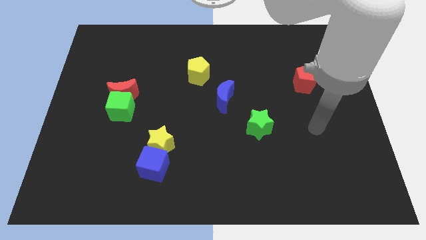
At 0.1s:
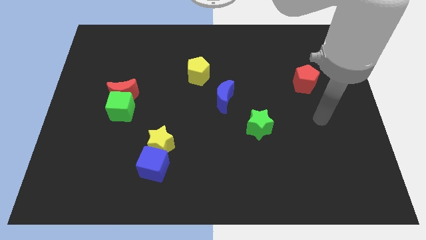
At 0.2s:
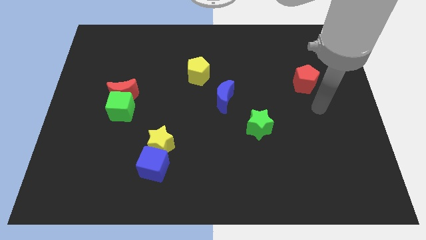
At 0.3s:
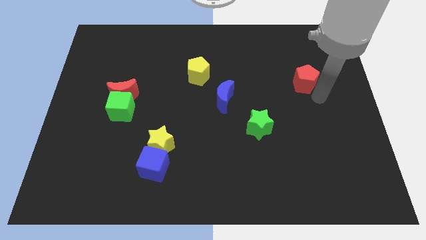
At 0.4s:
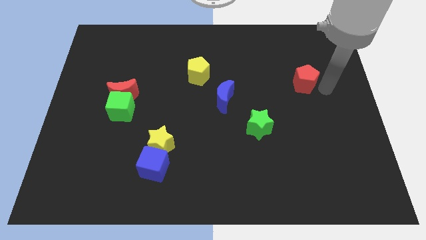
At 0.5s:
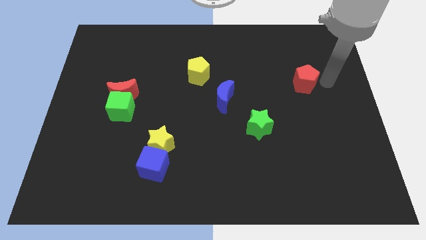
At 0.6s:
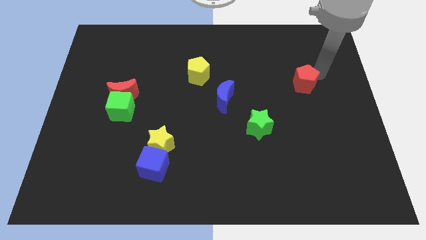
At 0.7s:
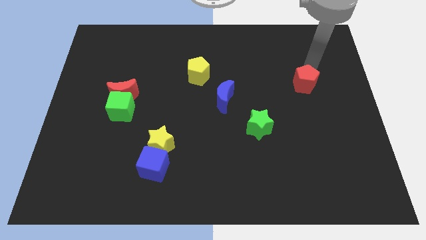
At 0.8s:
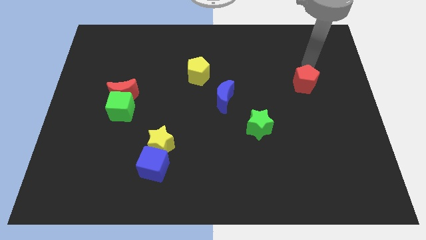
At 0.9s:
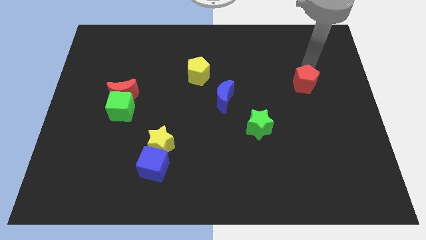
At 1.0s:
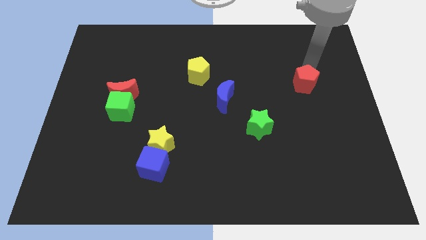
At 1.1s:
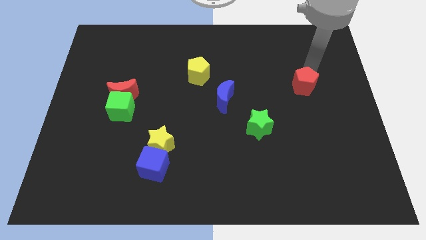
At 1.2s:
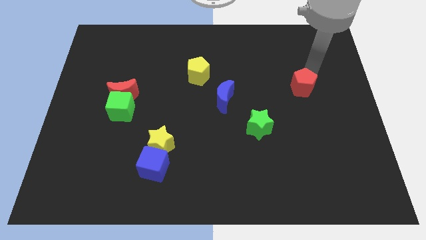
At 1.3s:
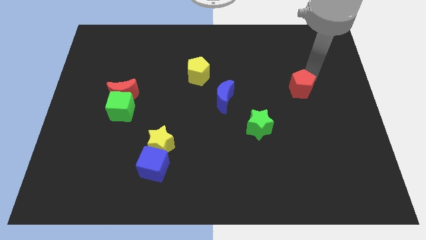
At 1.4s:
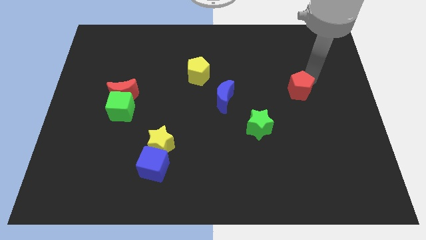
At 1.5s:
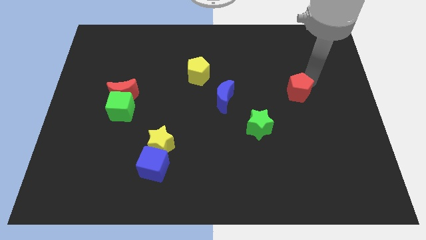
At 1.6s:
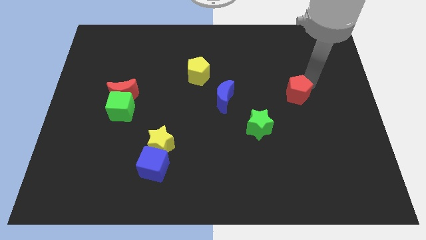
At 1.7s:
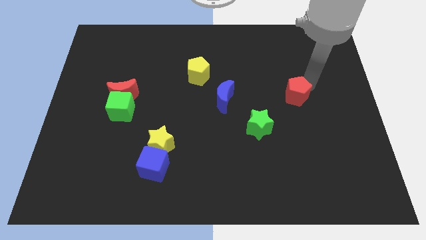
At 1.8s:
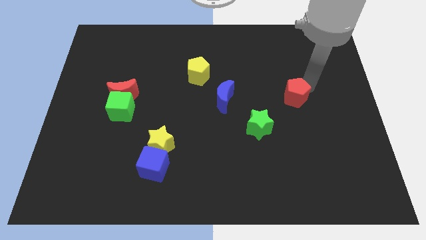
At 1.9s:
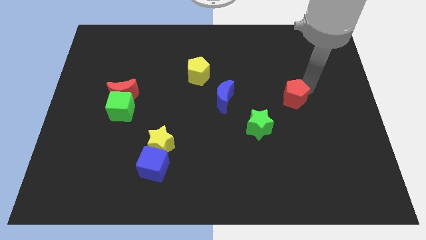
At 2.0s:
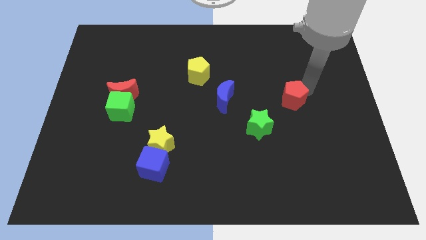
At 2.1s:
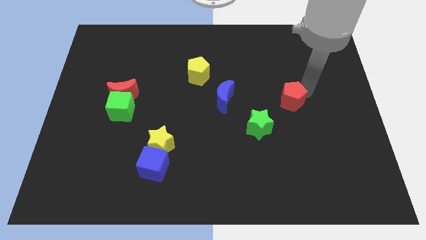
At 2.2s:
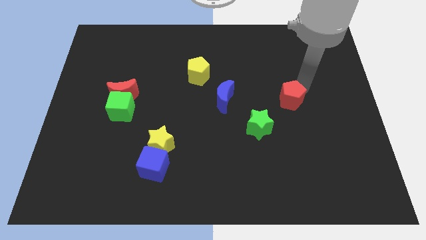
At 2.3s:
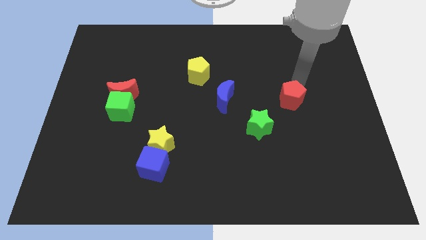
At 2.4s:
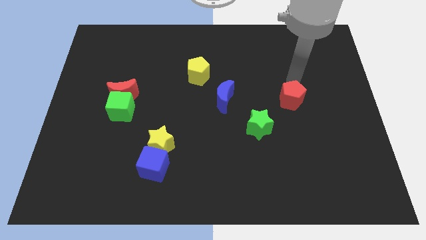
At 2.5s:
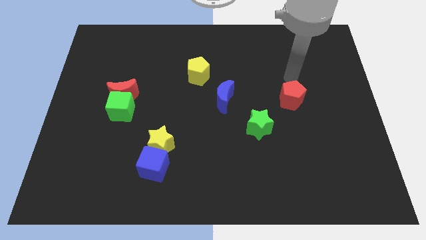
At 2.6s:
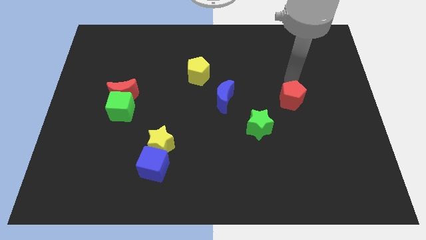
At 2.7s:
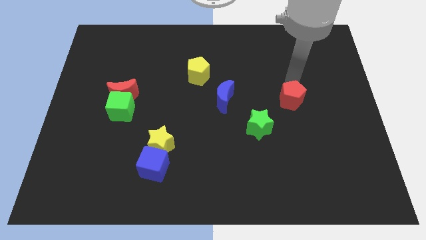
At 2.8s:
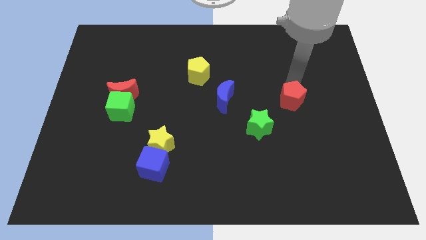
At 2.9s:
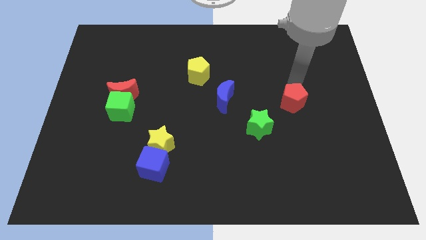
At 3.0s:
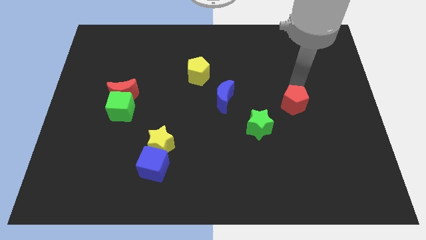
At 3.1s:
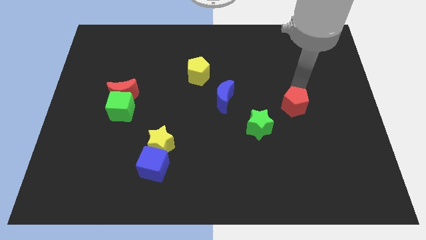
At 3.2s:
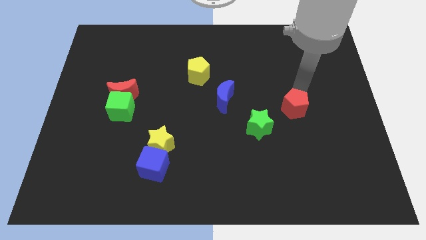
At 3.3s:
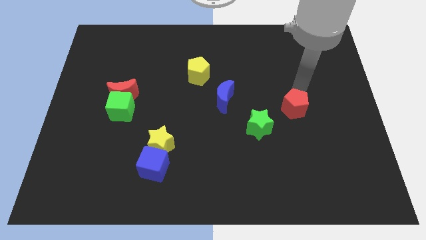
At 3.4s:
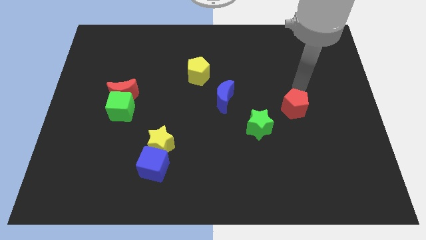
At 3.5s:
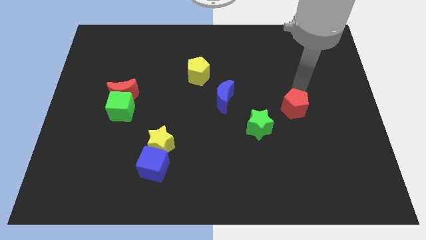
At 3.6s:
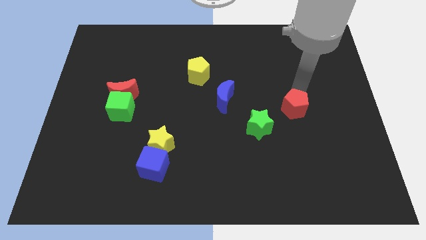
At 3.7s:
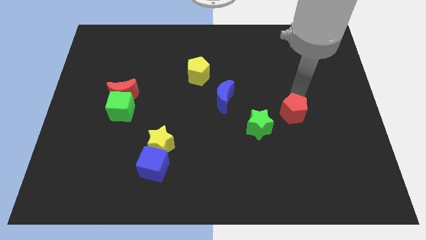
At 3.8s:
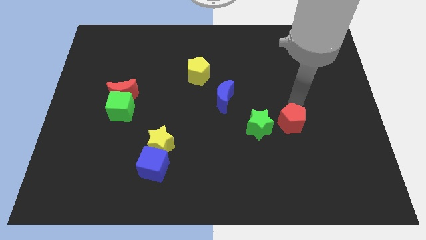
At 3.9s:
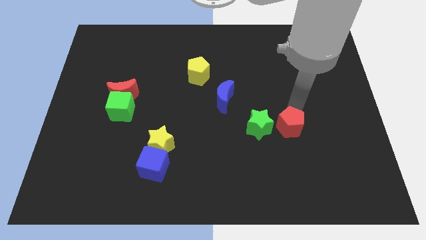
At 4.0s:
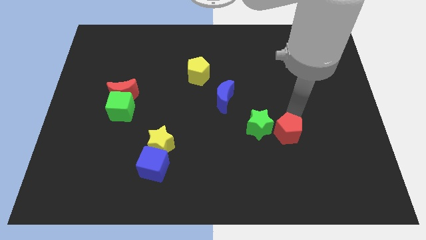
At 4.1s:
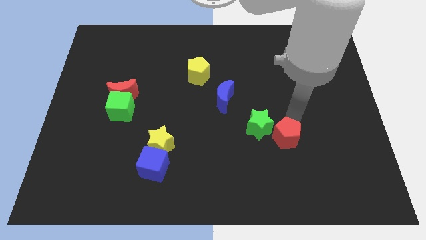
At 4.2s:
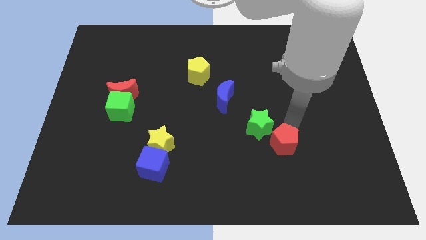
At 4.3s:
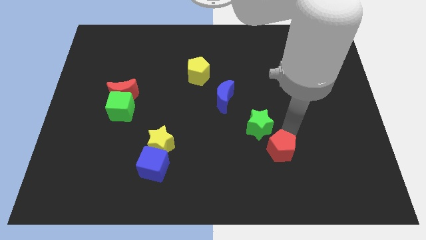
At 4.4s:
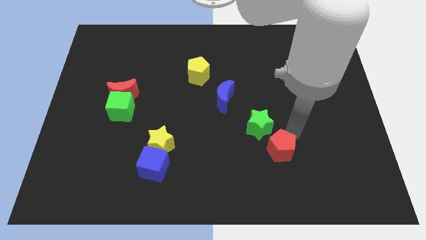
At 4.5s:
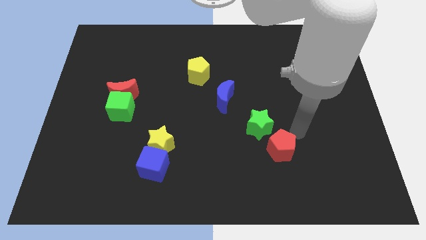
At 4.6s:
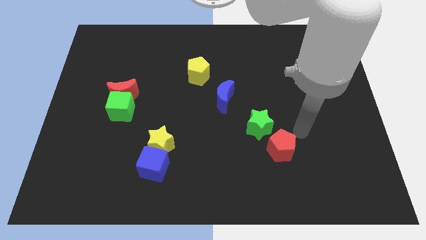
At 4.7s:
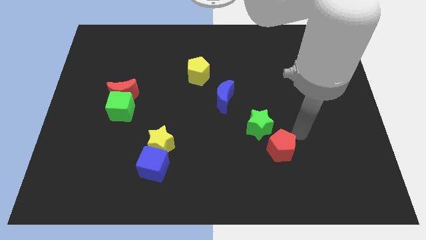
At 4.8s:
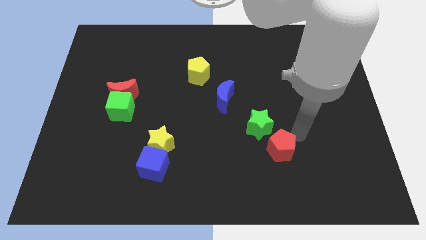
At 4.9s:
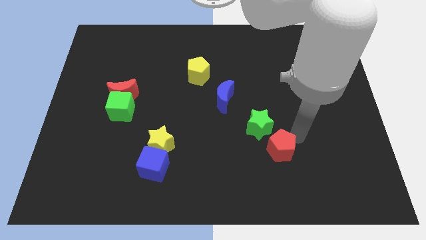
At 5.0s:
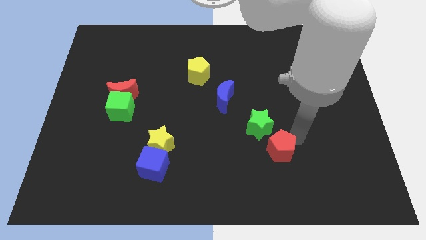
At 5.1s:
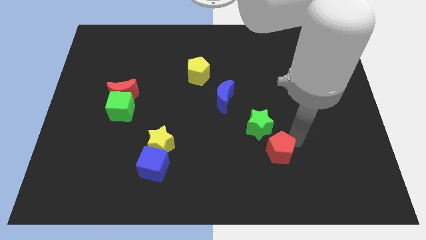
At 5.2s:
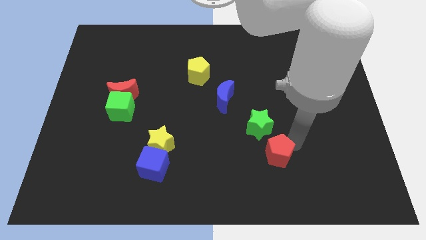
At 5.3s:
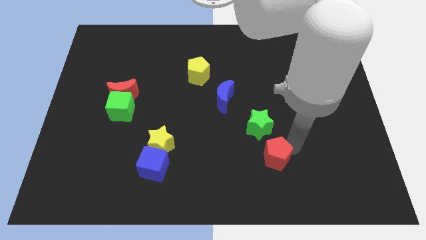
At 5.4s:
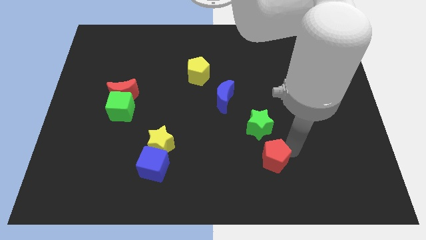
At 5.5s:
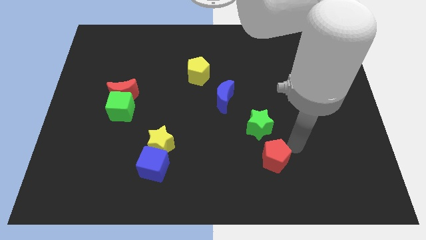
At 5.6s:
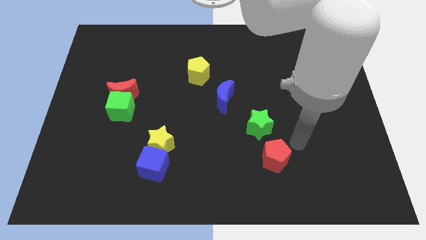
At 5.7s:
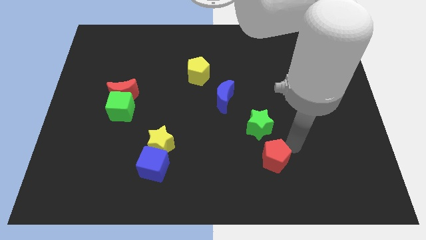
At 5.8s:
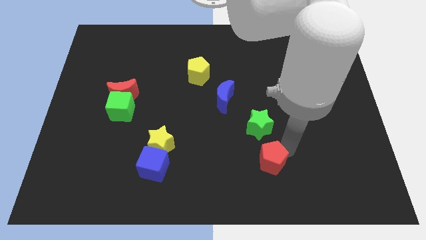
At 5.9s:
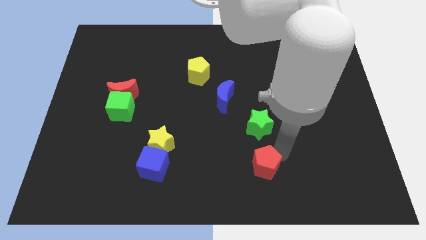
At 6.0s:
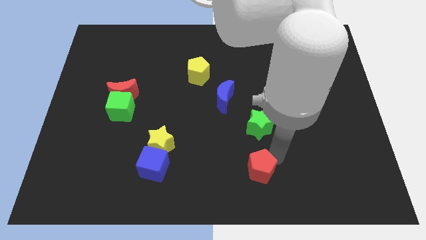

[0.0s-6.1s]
slide the red pentagon to the bottom side
